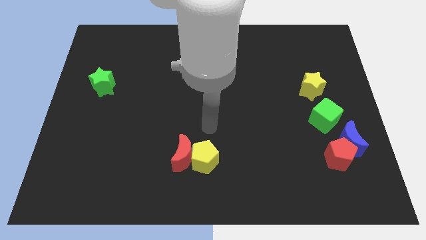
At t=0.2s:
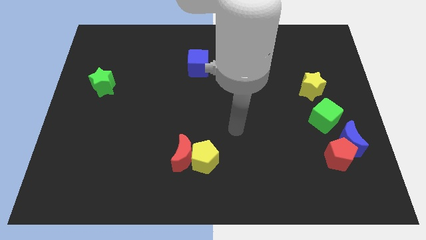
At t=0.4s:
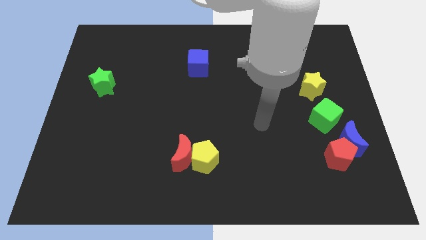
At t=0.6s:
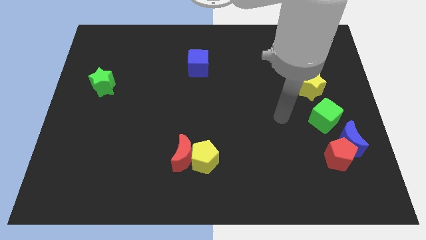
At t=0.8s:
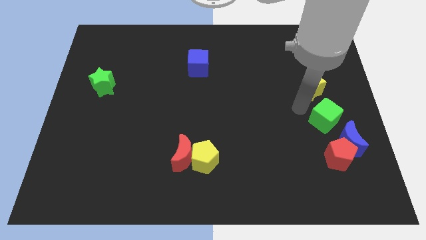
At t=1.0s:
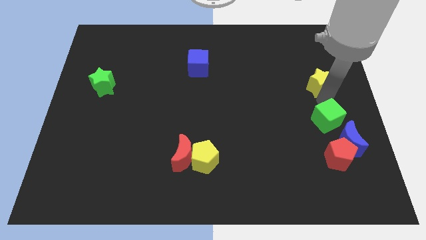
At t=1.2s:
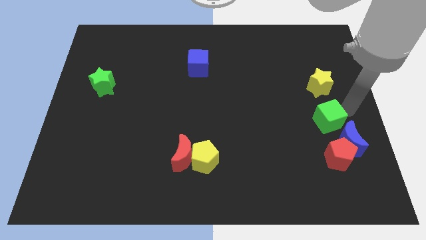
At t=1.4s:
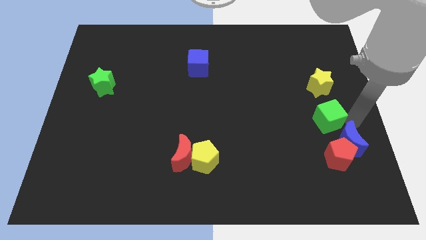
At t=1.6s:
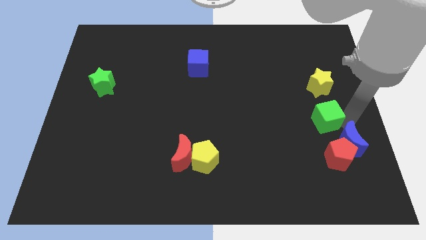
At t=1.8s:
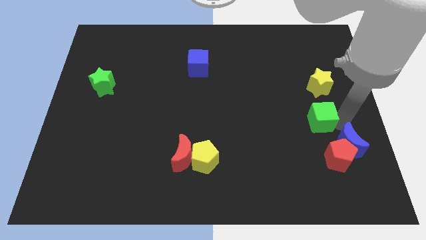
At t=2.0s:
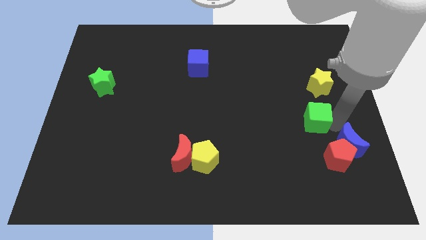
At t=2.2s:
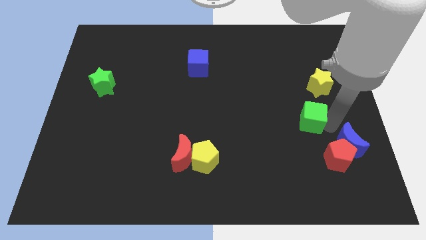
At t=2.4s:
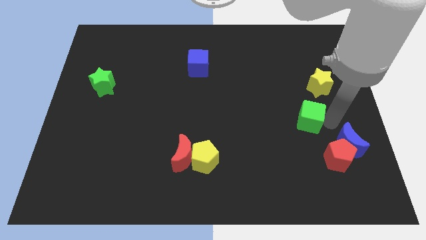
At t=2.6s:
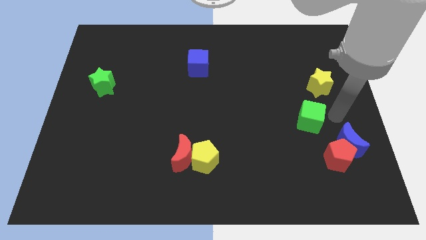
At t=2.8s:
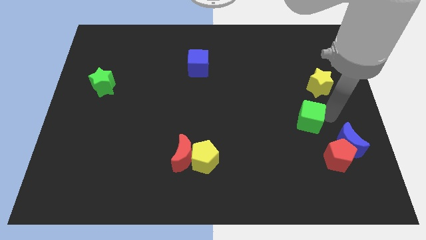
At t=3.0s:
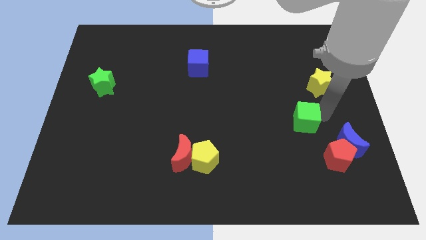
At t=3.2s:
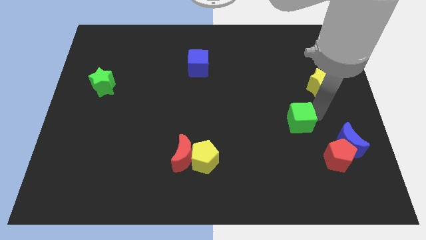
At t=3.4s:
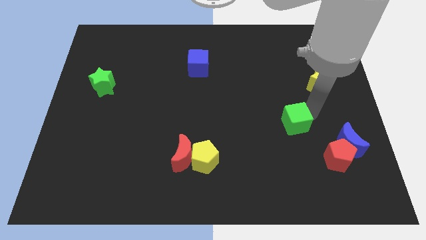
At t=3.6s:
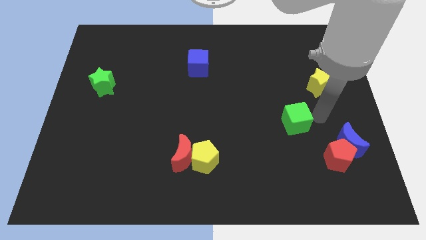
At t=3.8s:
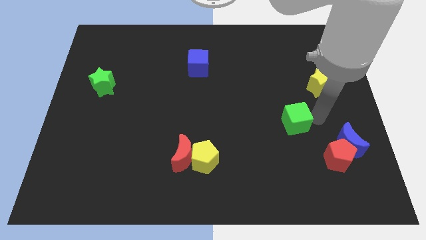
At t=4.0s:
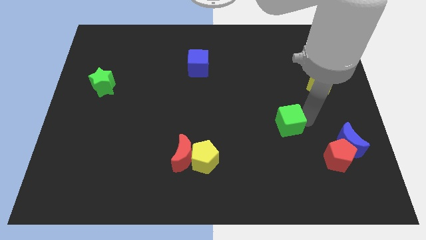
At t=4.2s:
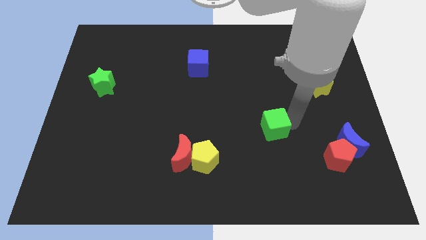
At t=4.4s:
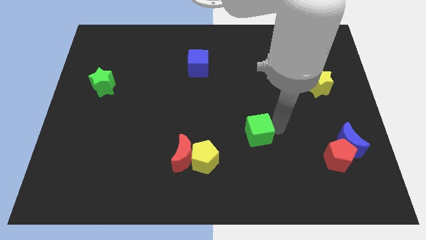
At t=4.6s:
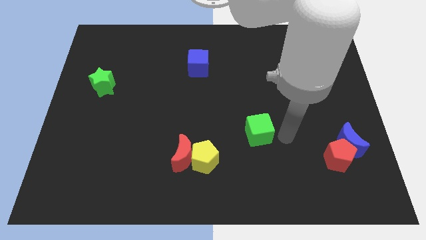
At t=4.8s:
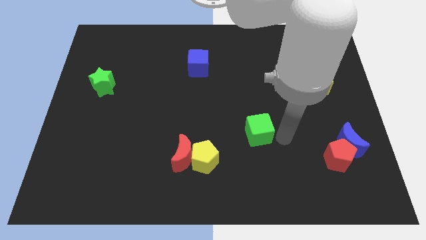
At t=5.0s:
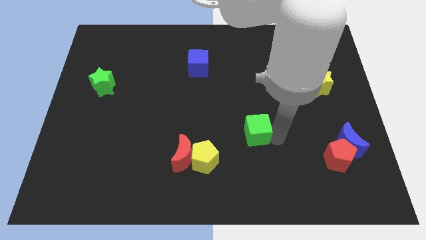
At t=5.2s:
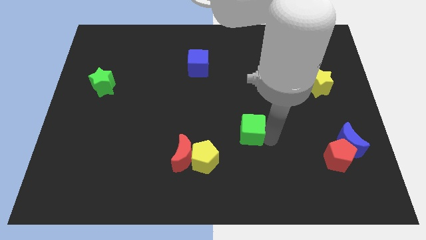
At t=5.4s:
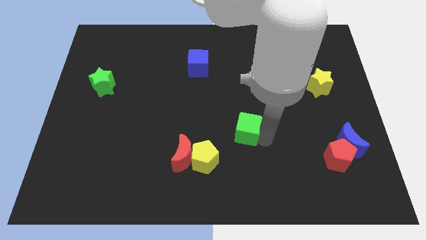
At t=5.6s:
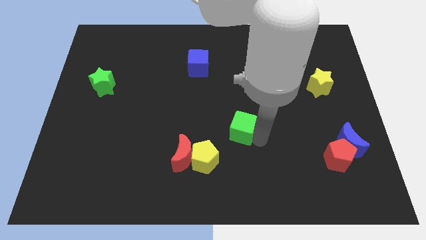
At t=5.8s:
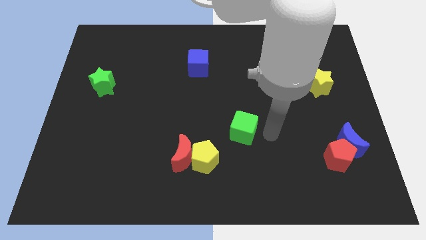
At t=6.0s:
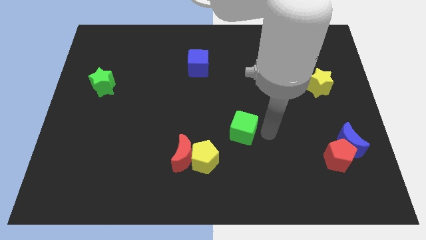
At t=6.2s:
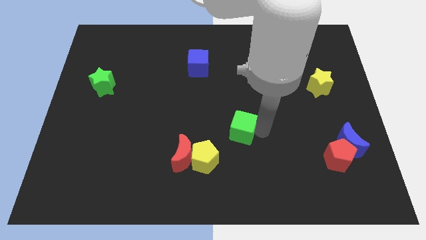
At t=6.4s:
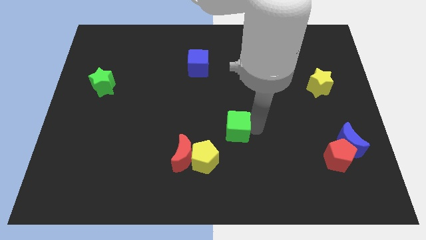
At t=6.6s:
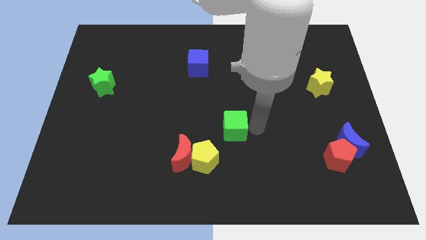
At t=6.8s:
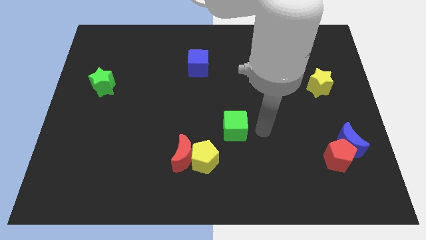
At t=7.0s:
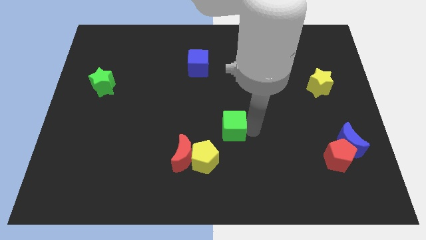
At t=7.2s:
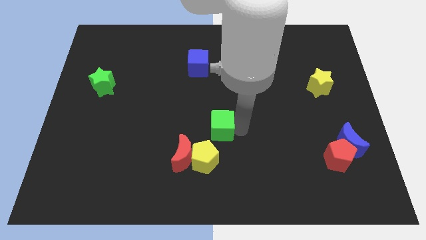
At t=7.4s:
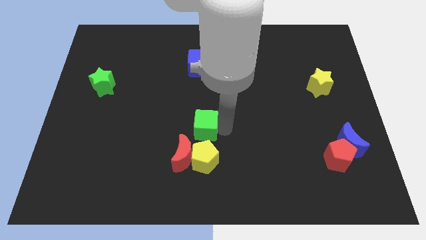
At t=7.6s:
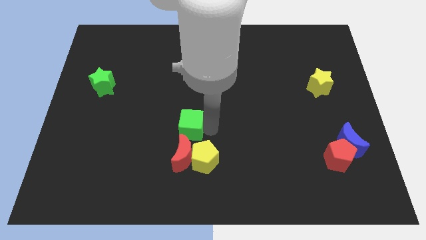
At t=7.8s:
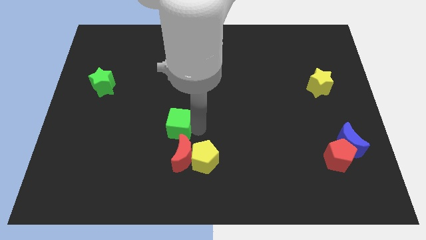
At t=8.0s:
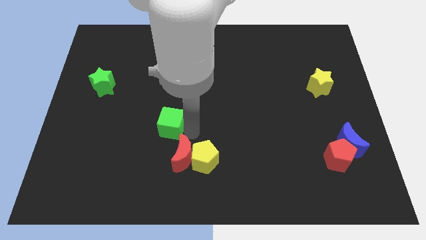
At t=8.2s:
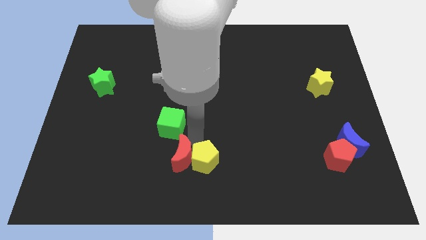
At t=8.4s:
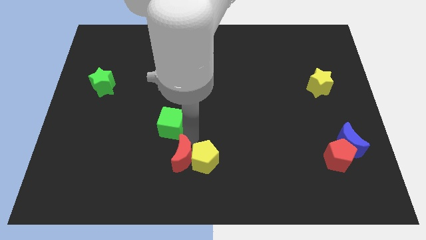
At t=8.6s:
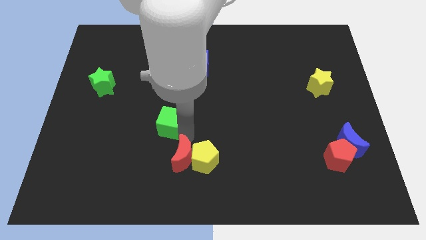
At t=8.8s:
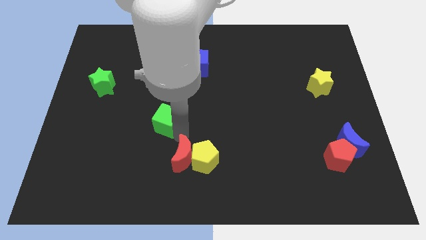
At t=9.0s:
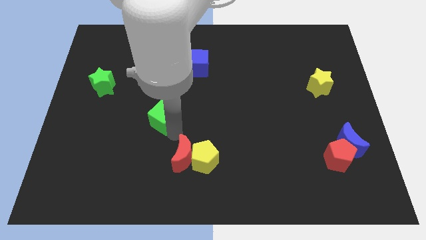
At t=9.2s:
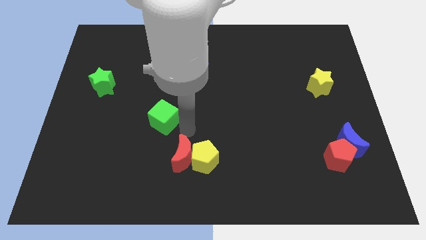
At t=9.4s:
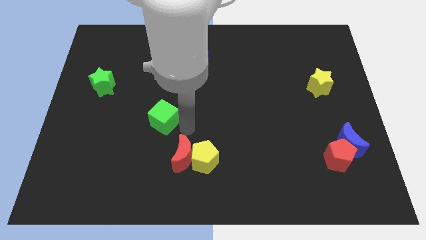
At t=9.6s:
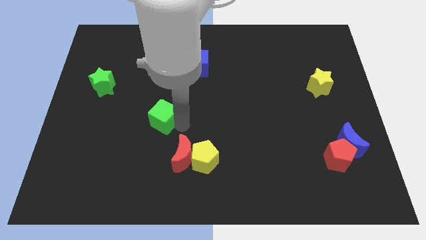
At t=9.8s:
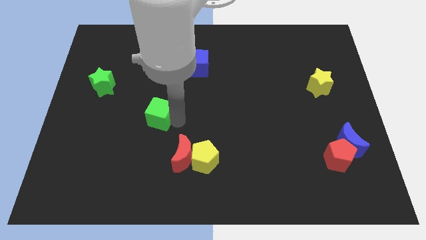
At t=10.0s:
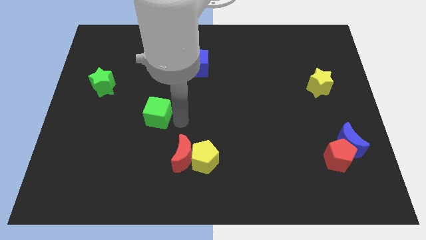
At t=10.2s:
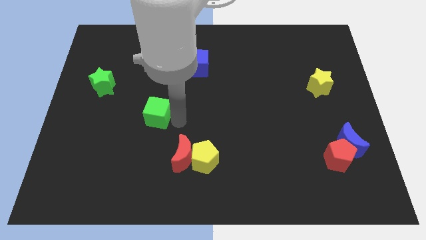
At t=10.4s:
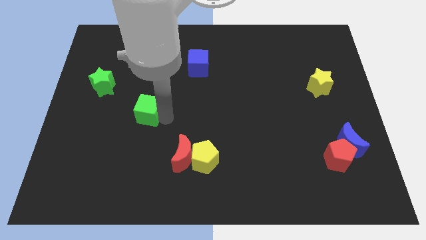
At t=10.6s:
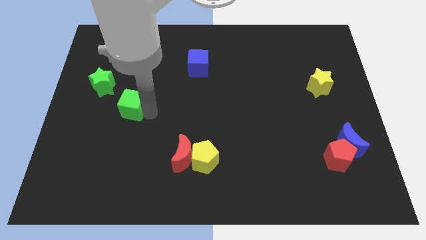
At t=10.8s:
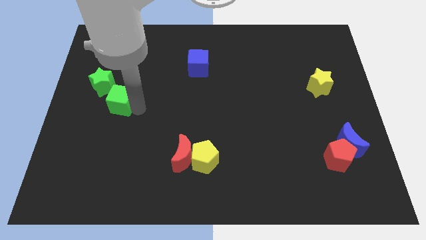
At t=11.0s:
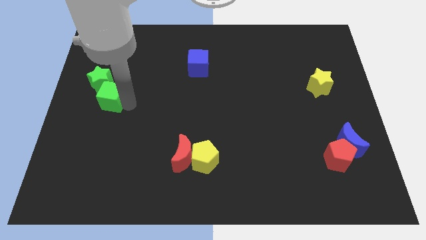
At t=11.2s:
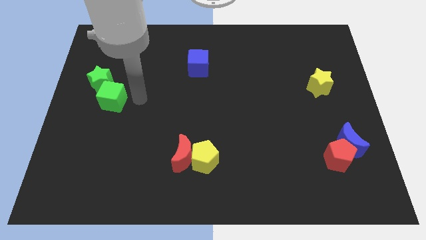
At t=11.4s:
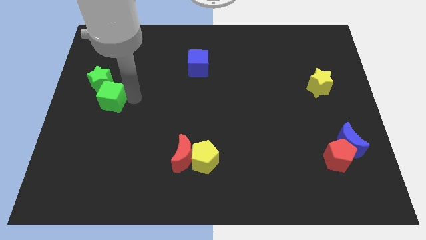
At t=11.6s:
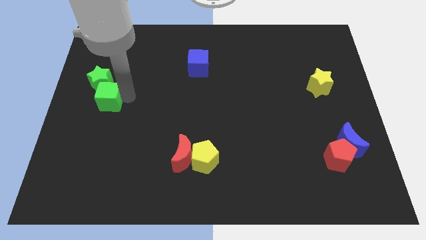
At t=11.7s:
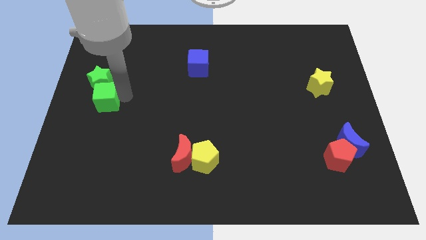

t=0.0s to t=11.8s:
move the green cube to the left side

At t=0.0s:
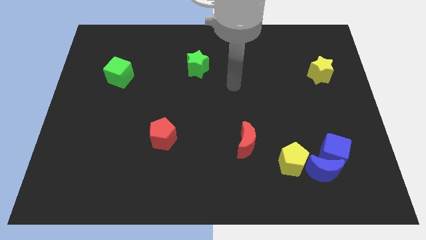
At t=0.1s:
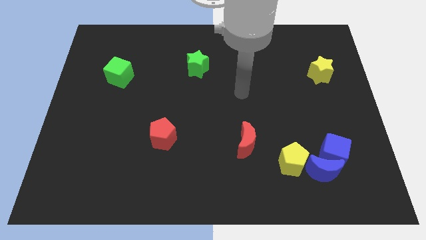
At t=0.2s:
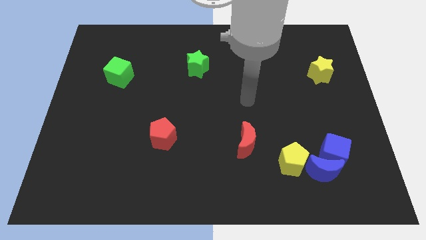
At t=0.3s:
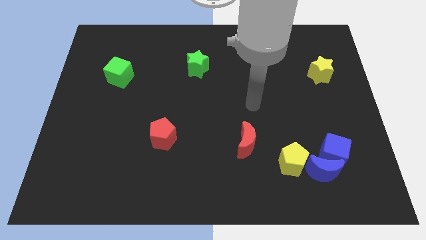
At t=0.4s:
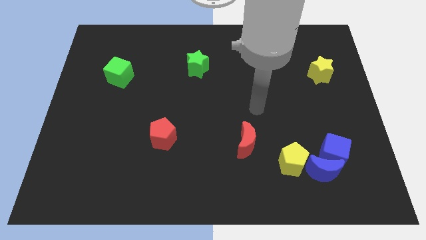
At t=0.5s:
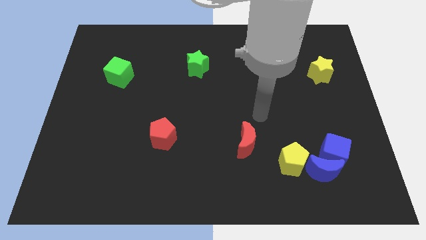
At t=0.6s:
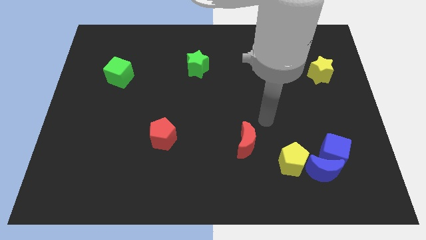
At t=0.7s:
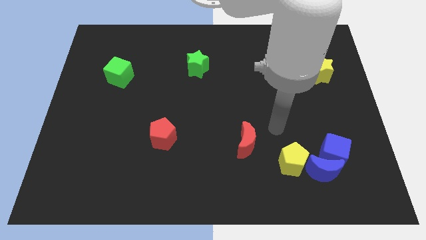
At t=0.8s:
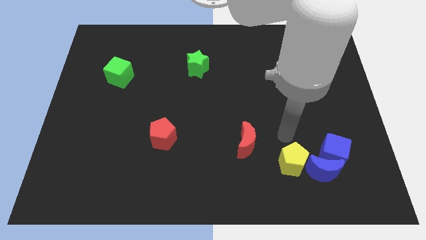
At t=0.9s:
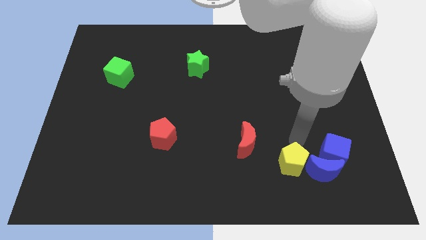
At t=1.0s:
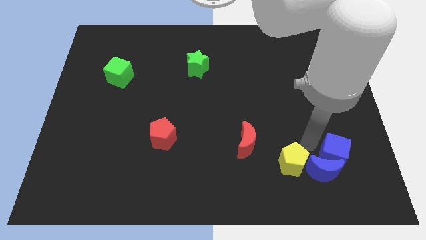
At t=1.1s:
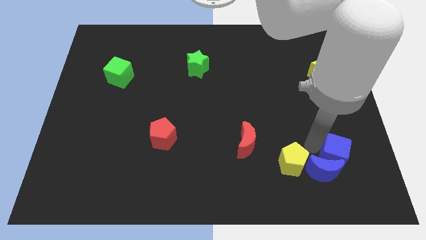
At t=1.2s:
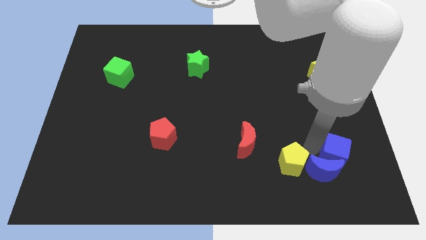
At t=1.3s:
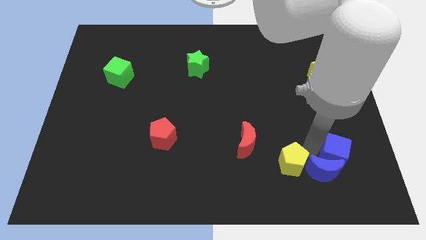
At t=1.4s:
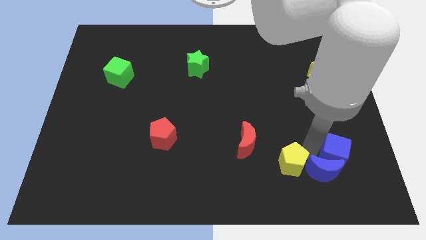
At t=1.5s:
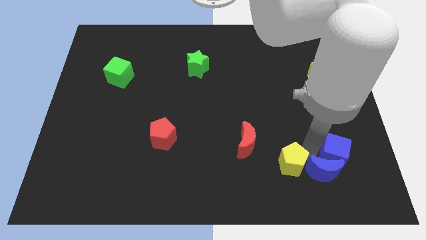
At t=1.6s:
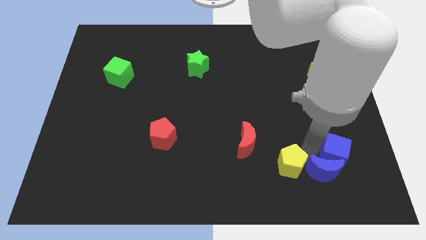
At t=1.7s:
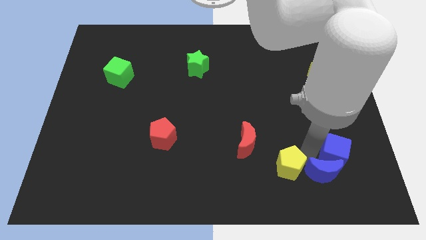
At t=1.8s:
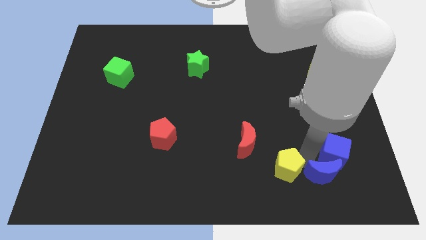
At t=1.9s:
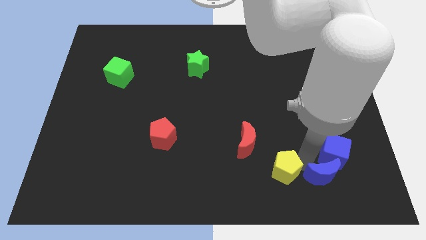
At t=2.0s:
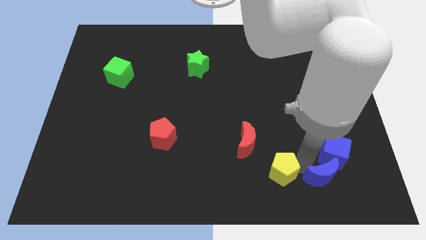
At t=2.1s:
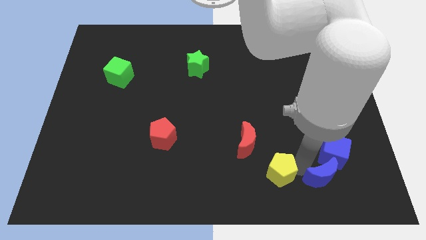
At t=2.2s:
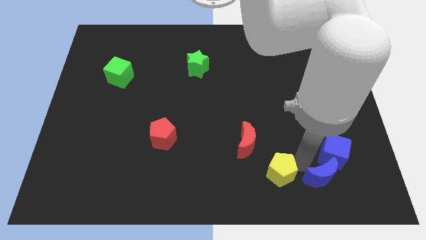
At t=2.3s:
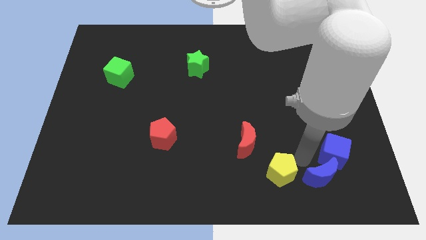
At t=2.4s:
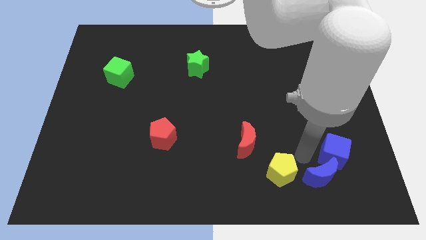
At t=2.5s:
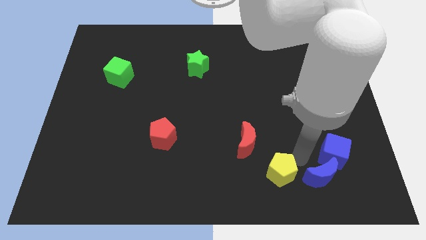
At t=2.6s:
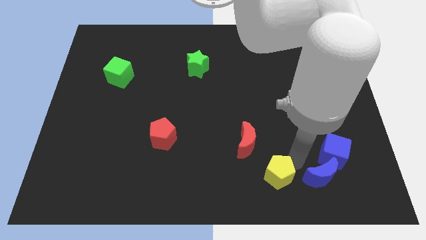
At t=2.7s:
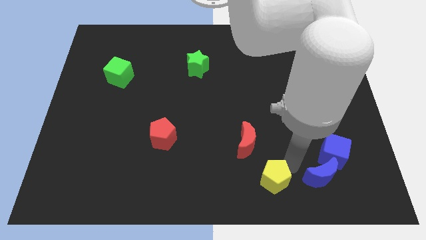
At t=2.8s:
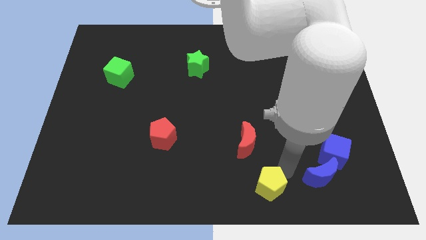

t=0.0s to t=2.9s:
slide the yellow pentagon to the bottom side
